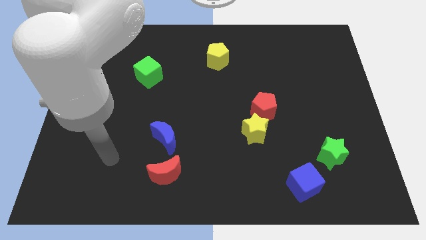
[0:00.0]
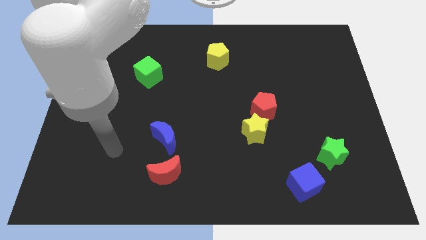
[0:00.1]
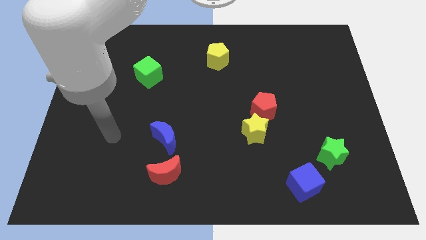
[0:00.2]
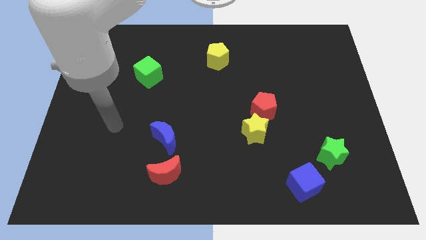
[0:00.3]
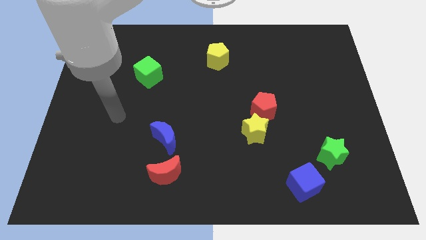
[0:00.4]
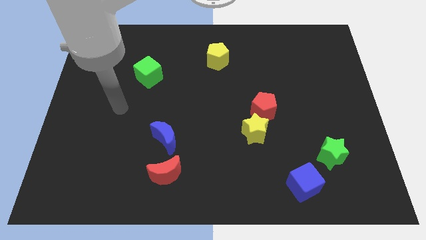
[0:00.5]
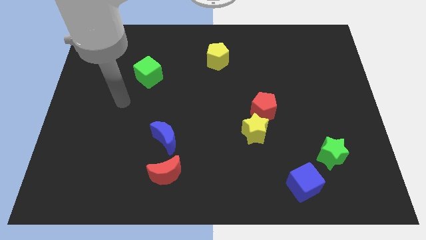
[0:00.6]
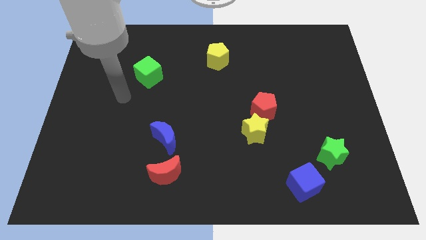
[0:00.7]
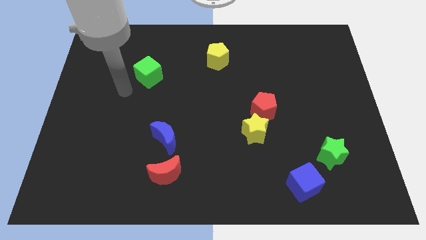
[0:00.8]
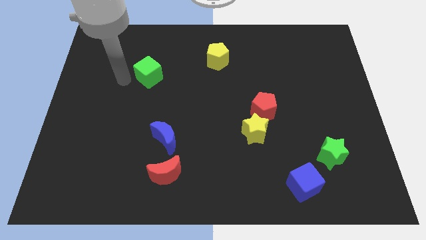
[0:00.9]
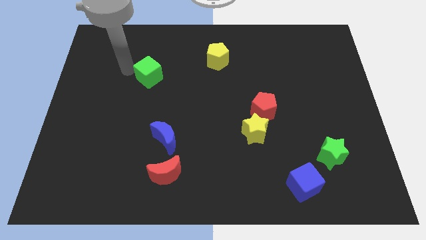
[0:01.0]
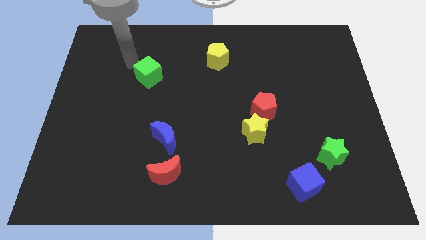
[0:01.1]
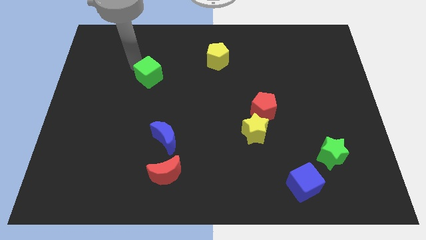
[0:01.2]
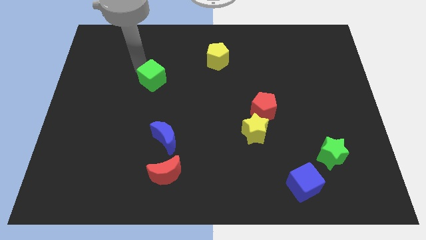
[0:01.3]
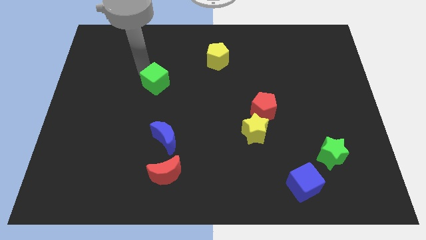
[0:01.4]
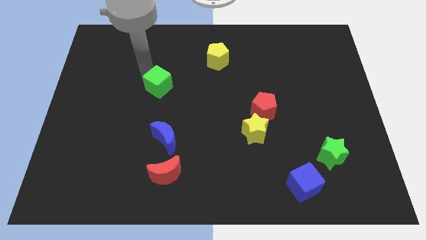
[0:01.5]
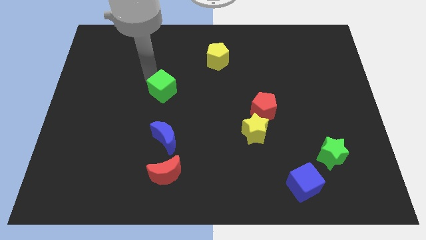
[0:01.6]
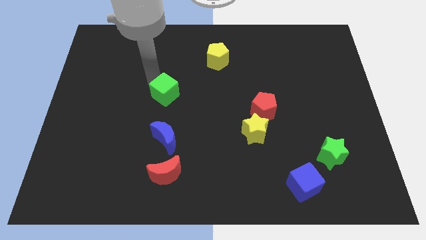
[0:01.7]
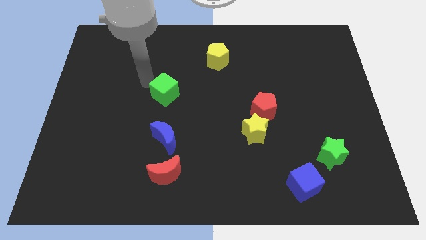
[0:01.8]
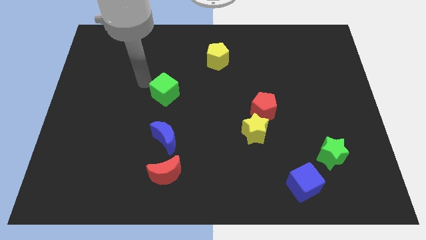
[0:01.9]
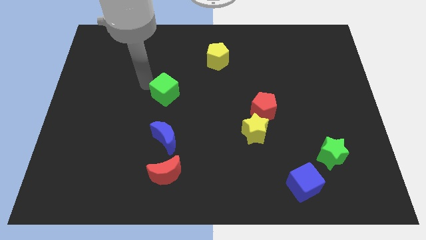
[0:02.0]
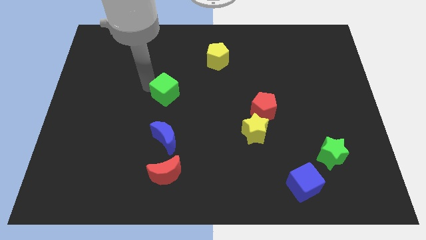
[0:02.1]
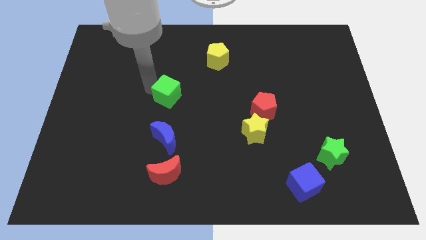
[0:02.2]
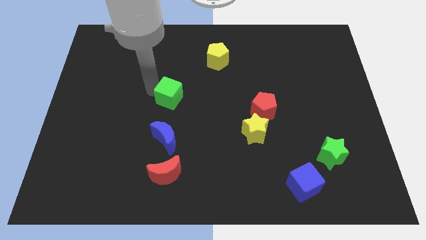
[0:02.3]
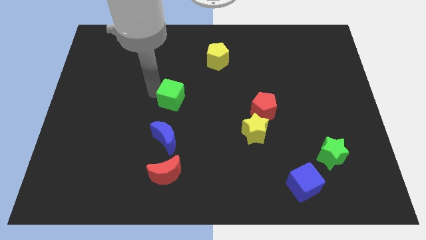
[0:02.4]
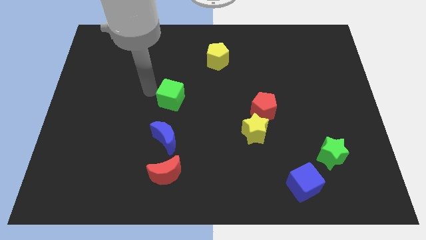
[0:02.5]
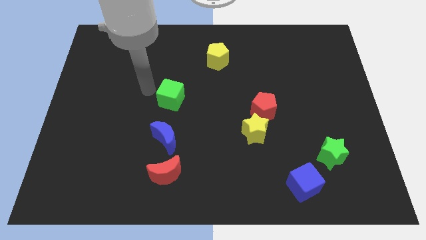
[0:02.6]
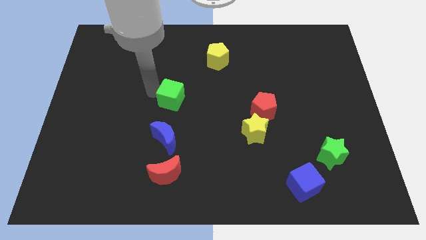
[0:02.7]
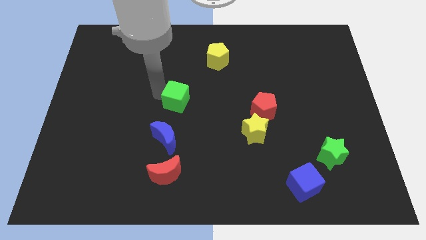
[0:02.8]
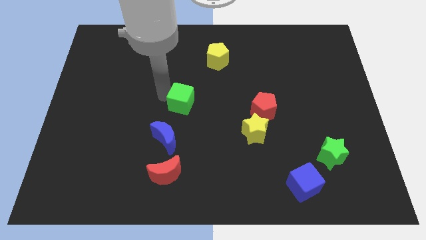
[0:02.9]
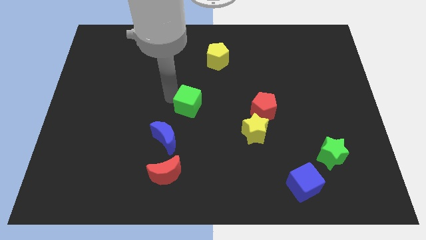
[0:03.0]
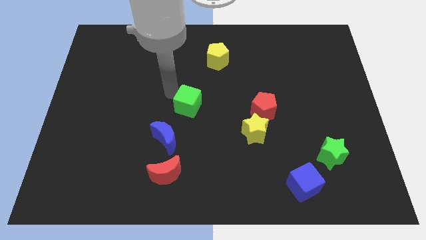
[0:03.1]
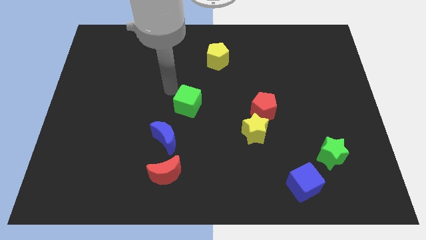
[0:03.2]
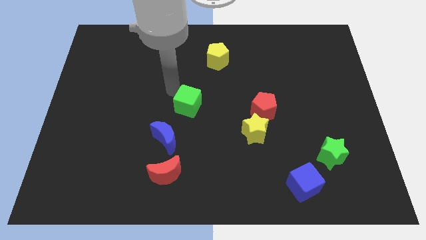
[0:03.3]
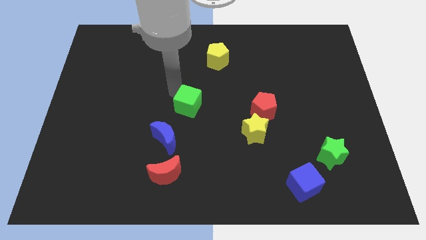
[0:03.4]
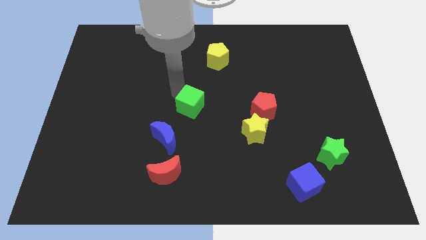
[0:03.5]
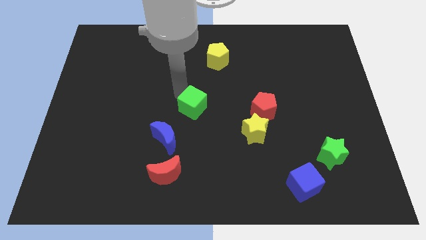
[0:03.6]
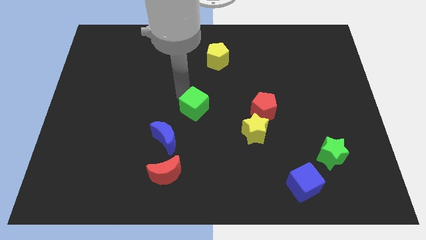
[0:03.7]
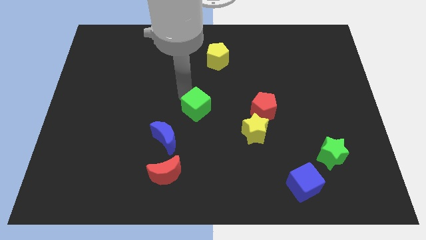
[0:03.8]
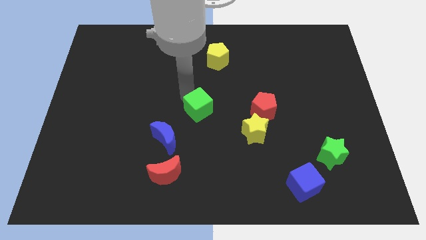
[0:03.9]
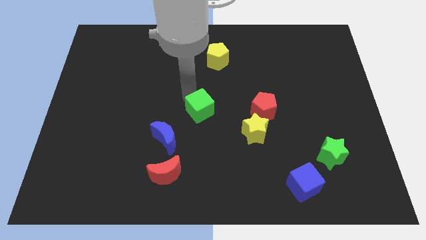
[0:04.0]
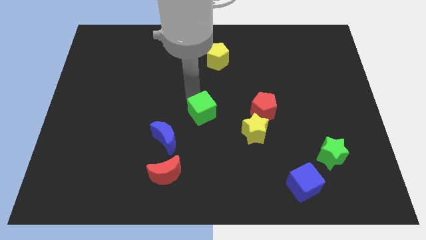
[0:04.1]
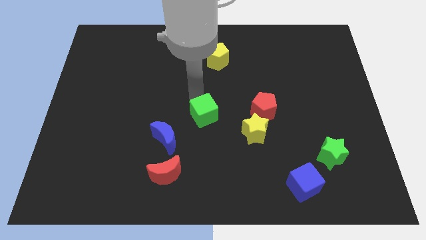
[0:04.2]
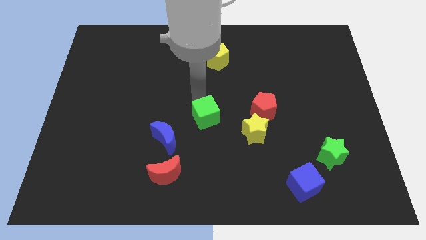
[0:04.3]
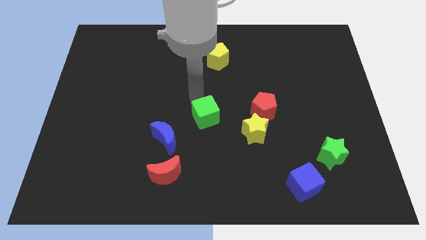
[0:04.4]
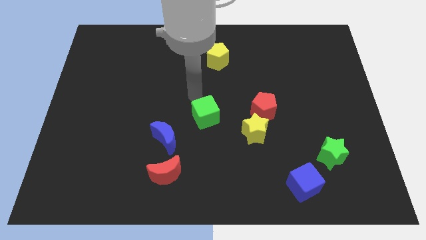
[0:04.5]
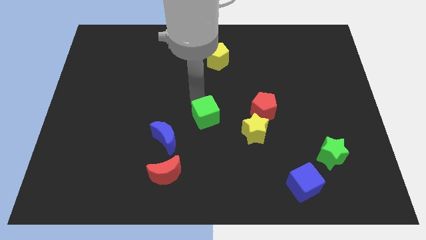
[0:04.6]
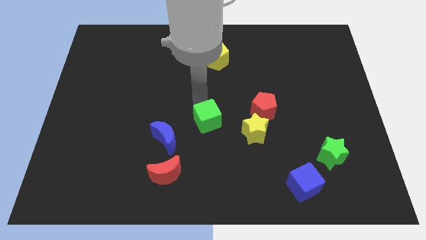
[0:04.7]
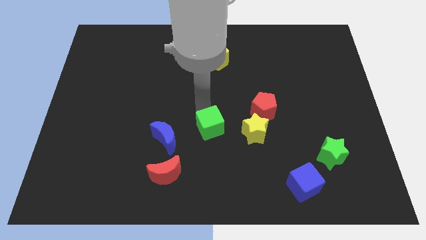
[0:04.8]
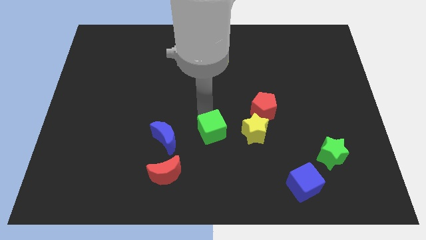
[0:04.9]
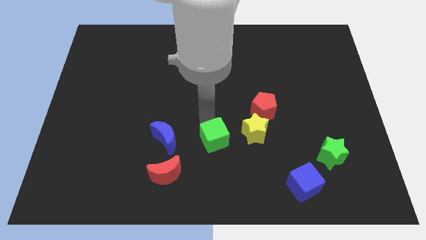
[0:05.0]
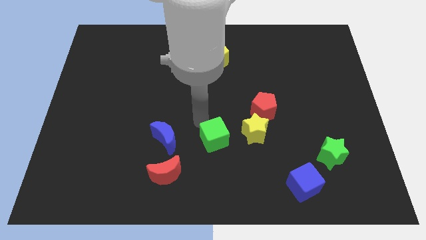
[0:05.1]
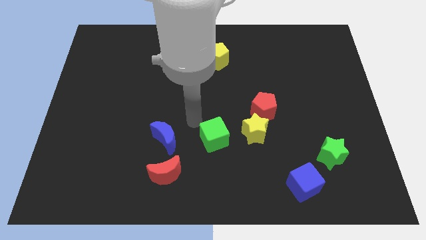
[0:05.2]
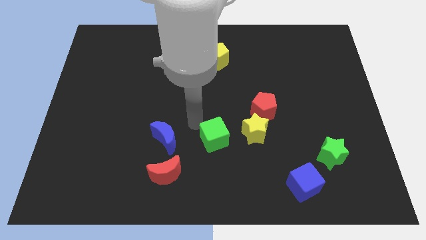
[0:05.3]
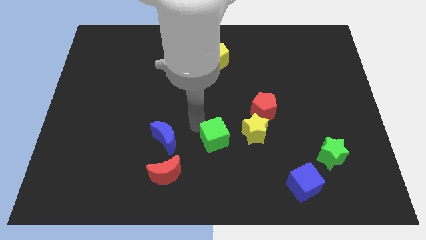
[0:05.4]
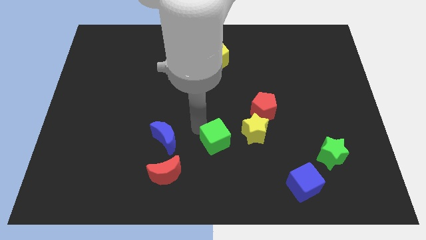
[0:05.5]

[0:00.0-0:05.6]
move the green cube diagonally down and to the left of the yellow star

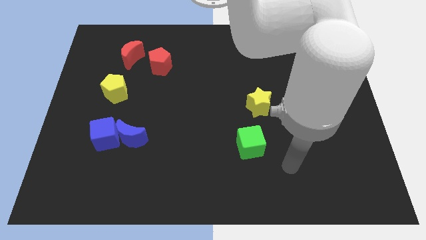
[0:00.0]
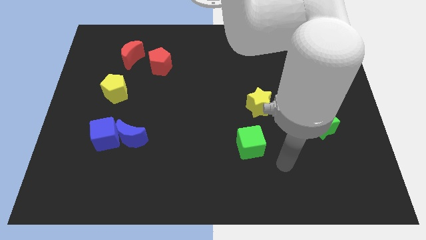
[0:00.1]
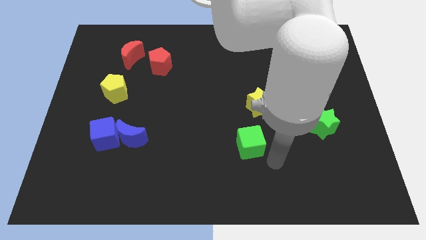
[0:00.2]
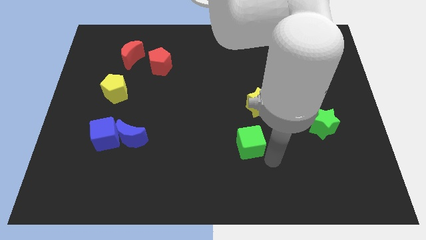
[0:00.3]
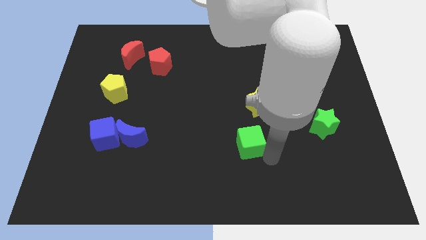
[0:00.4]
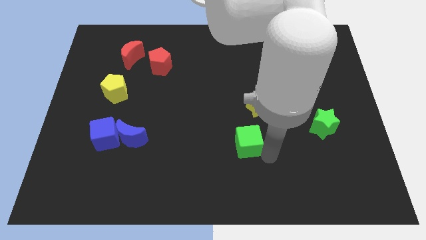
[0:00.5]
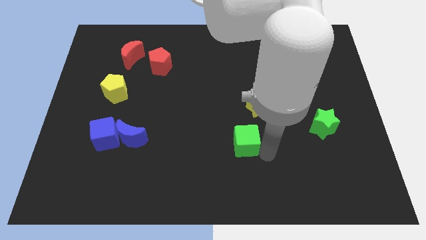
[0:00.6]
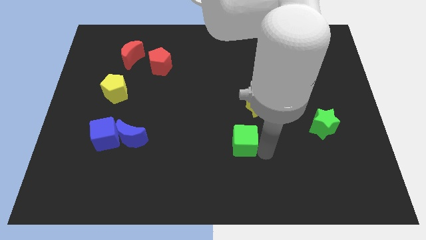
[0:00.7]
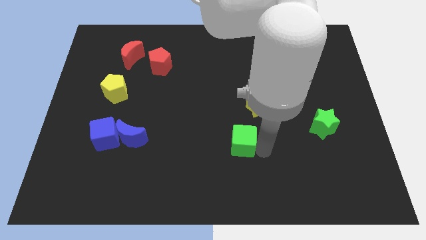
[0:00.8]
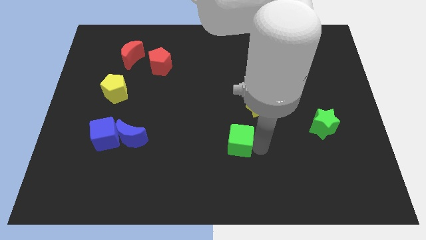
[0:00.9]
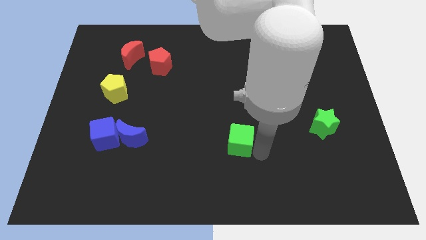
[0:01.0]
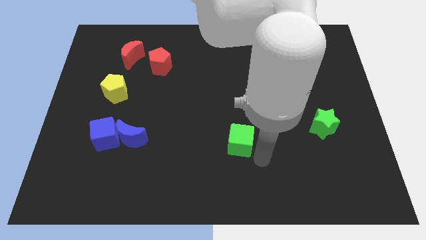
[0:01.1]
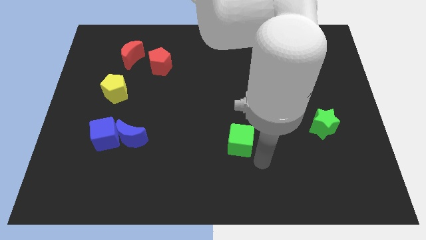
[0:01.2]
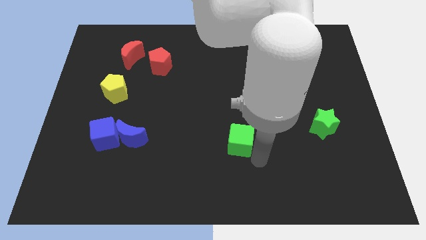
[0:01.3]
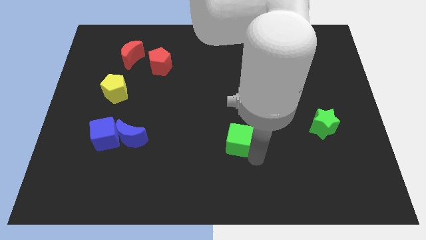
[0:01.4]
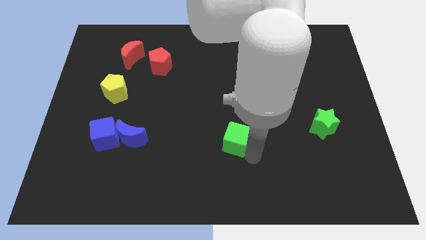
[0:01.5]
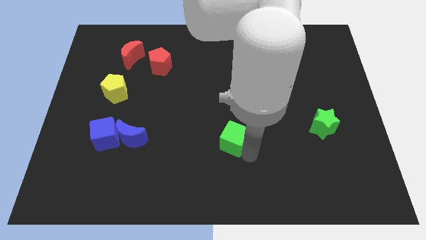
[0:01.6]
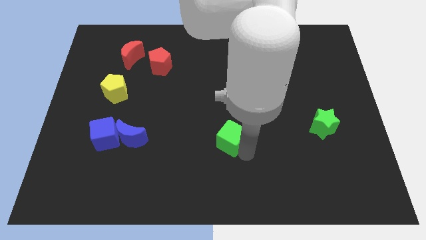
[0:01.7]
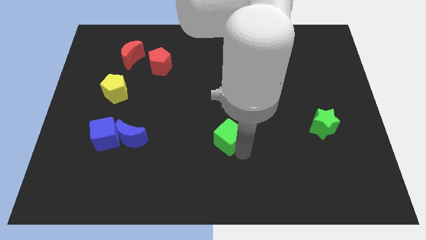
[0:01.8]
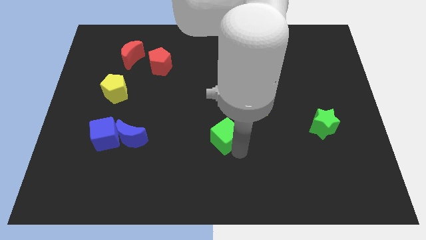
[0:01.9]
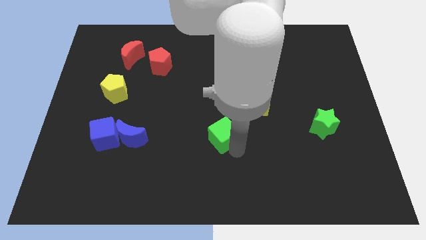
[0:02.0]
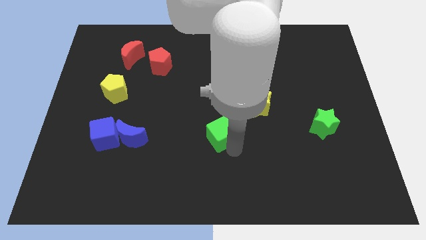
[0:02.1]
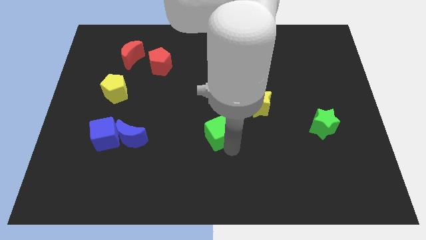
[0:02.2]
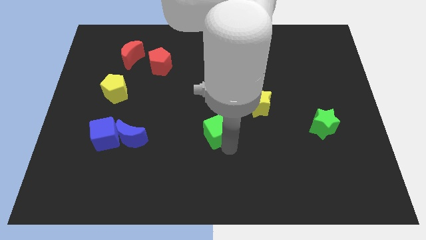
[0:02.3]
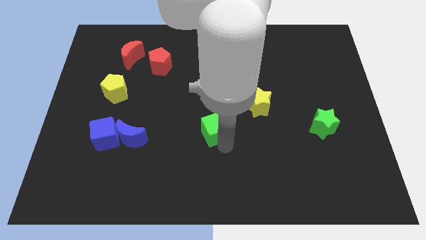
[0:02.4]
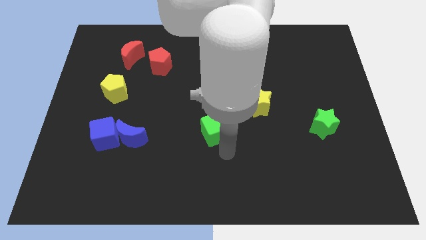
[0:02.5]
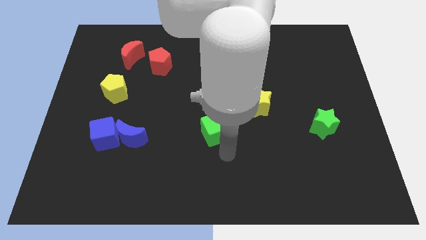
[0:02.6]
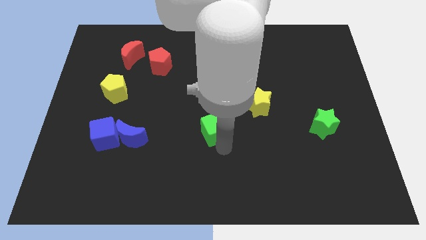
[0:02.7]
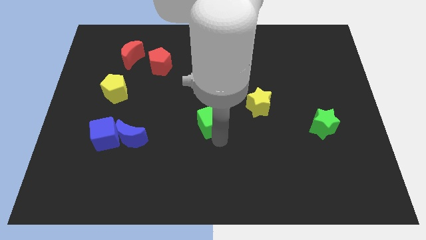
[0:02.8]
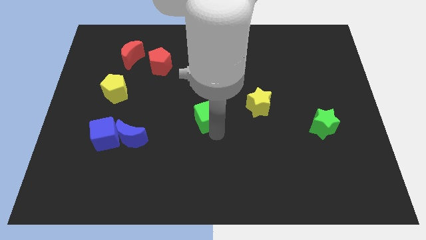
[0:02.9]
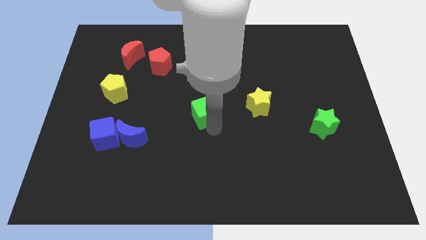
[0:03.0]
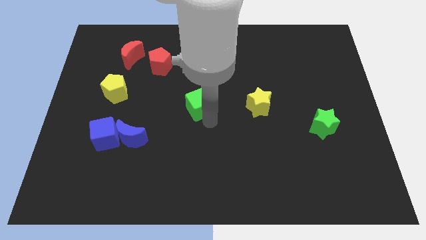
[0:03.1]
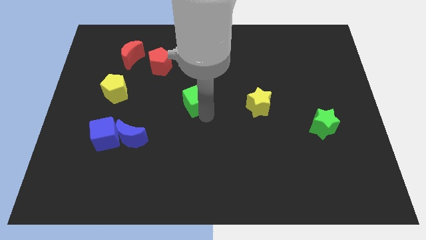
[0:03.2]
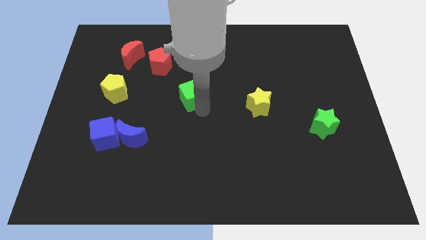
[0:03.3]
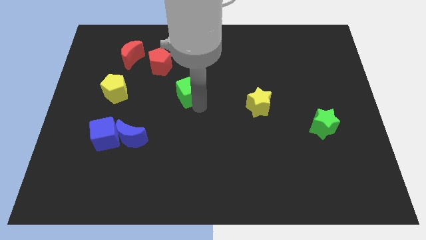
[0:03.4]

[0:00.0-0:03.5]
push the green cube to the bottom right side of the red pentagon
